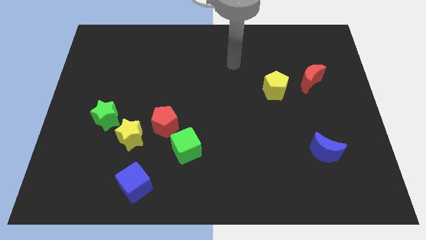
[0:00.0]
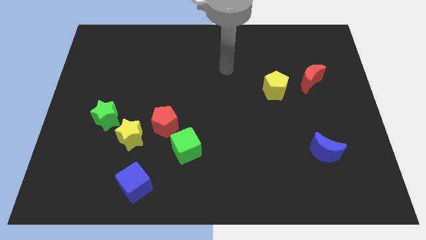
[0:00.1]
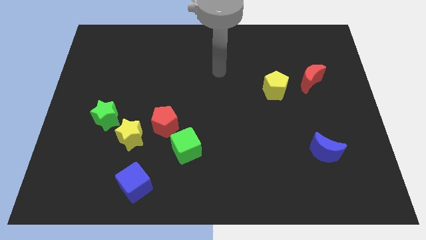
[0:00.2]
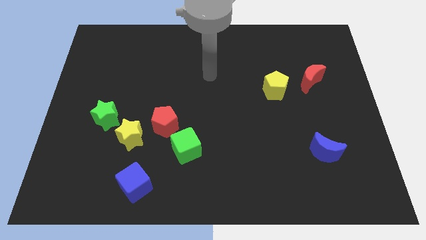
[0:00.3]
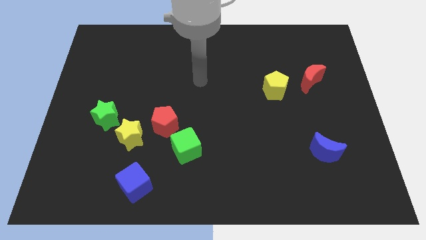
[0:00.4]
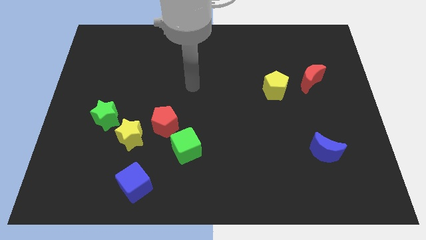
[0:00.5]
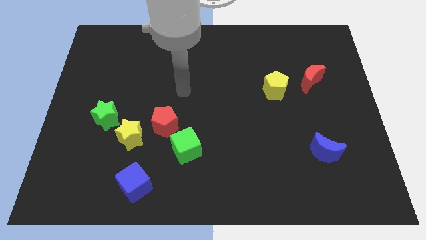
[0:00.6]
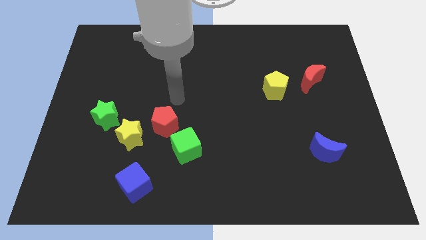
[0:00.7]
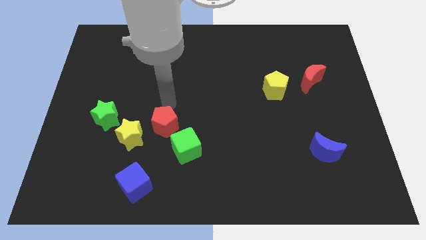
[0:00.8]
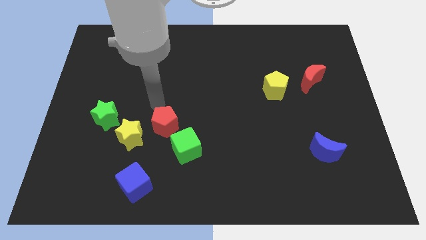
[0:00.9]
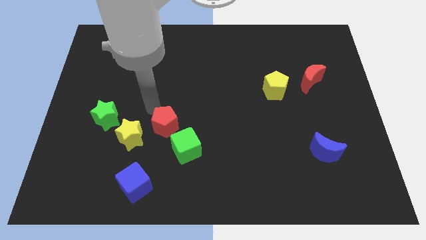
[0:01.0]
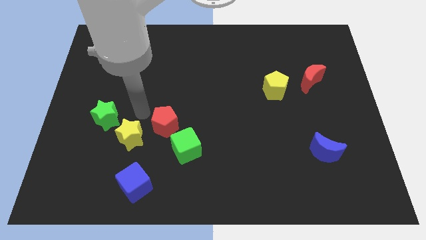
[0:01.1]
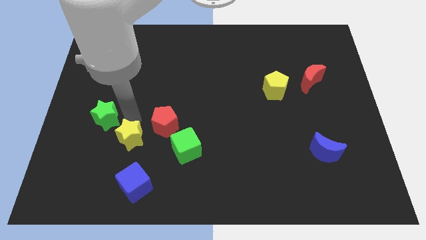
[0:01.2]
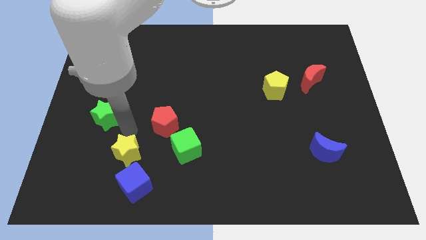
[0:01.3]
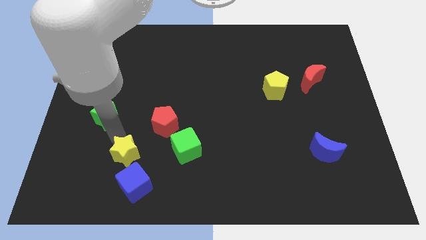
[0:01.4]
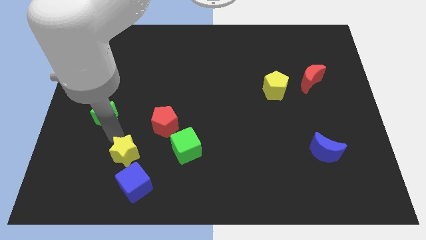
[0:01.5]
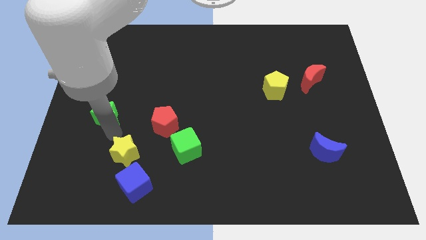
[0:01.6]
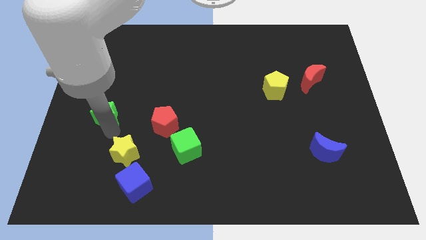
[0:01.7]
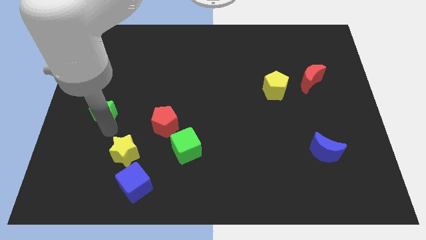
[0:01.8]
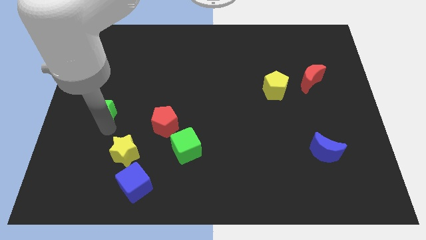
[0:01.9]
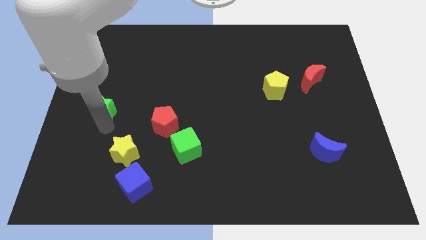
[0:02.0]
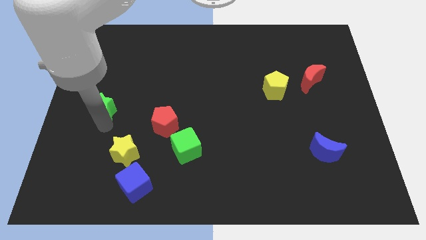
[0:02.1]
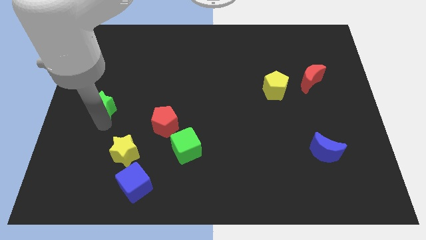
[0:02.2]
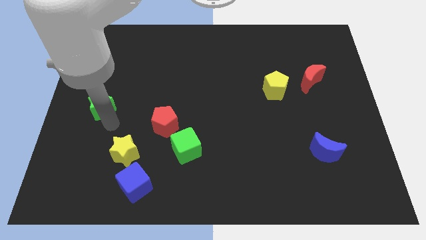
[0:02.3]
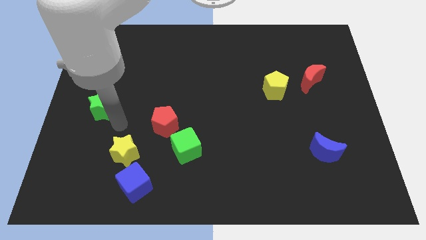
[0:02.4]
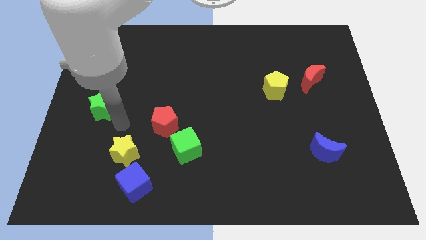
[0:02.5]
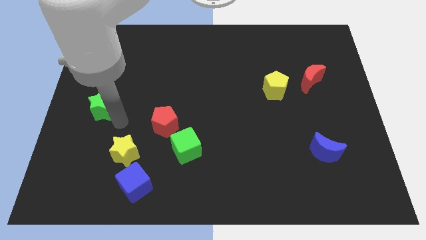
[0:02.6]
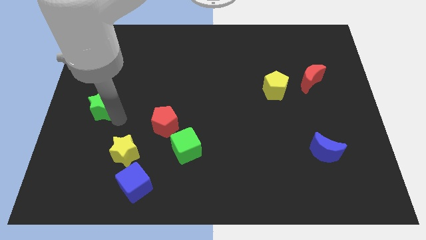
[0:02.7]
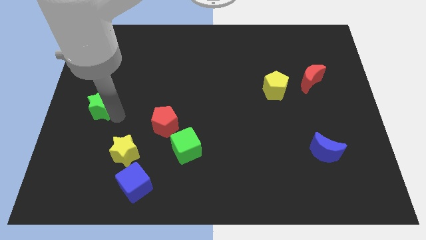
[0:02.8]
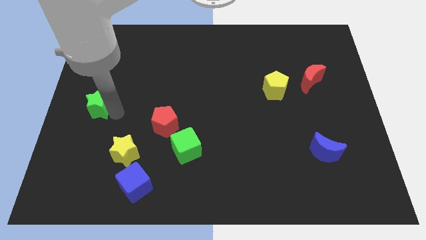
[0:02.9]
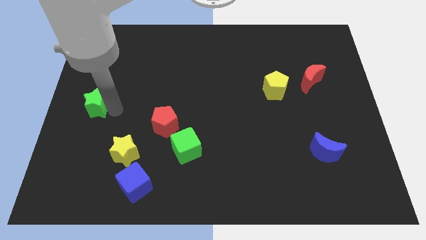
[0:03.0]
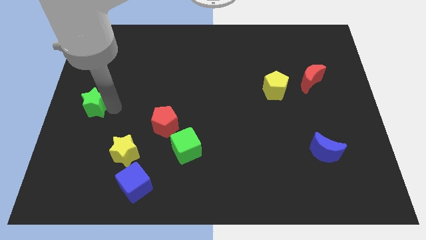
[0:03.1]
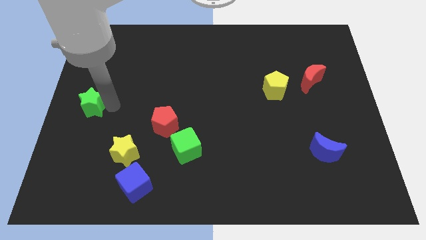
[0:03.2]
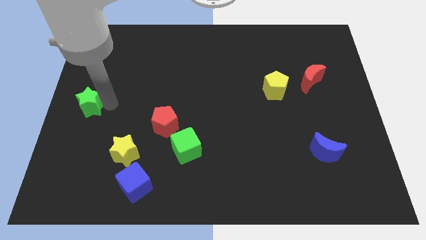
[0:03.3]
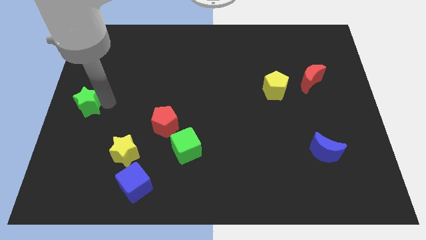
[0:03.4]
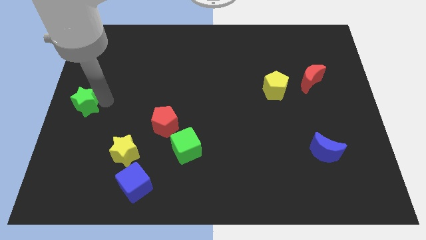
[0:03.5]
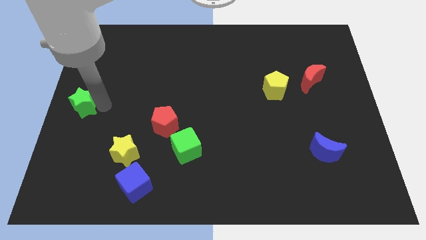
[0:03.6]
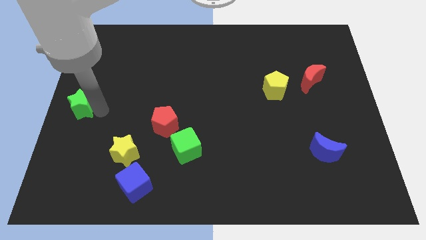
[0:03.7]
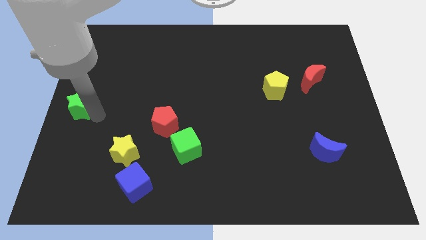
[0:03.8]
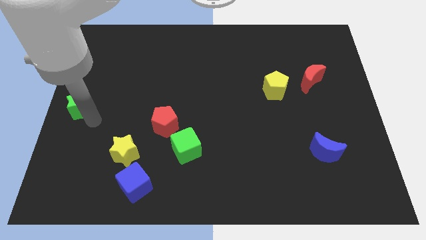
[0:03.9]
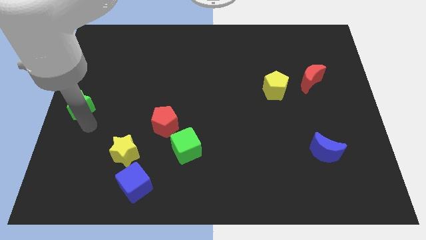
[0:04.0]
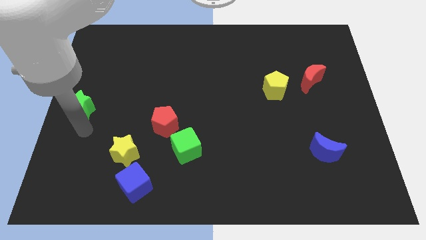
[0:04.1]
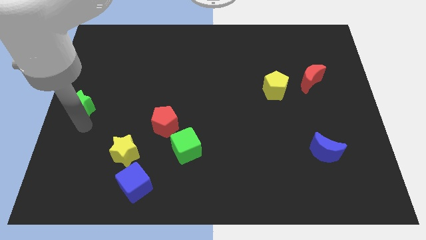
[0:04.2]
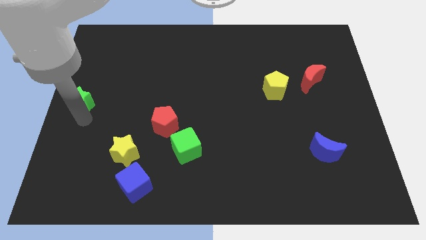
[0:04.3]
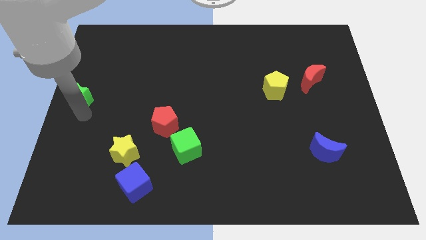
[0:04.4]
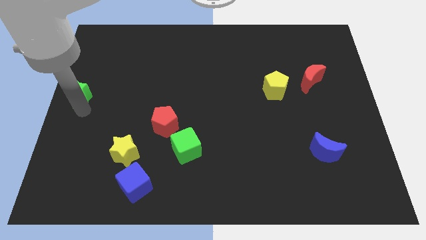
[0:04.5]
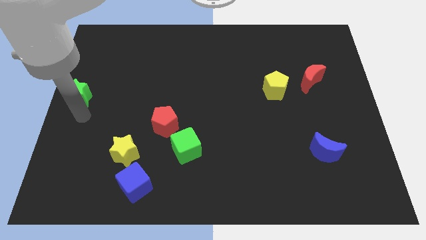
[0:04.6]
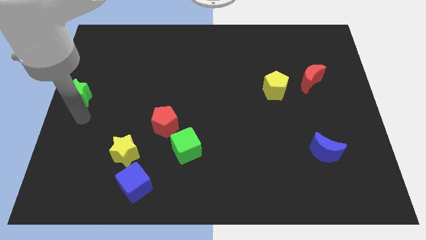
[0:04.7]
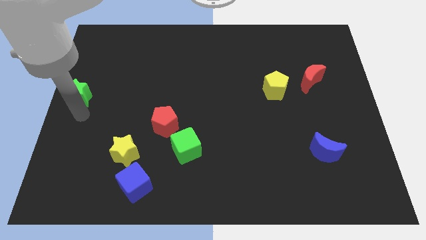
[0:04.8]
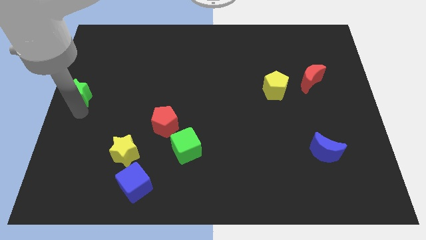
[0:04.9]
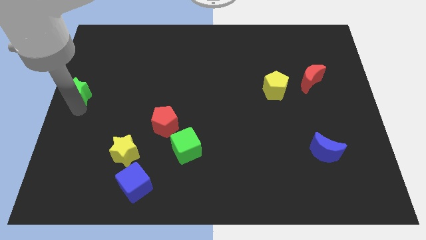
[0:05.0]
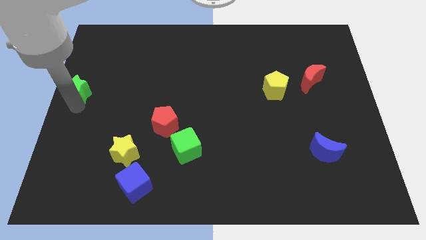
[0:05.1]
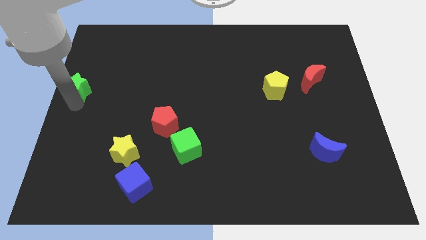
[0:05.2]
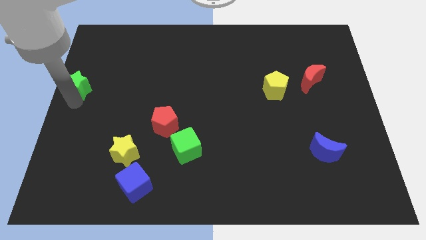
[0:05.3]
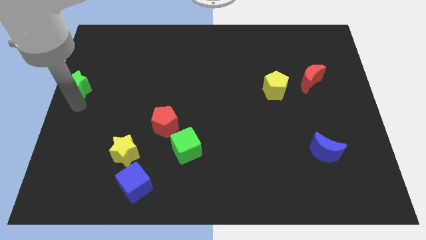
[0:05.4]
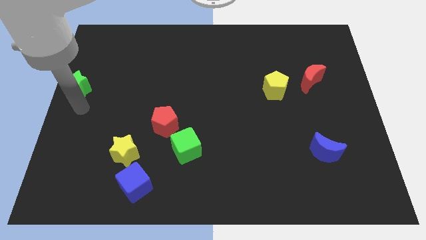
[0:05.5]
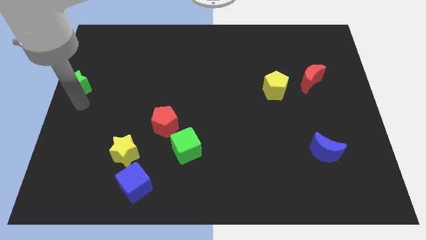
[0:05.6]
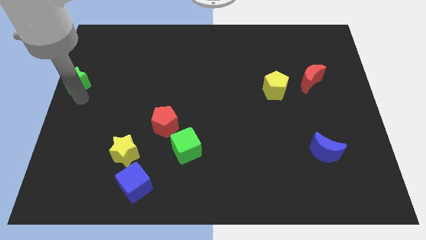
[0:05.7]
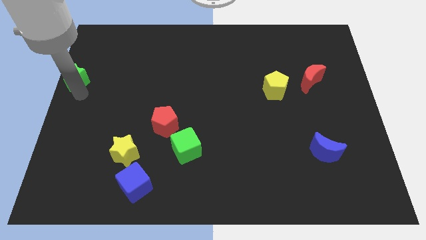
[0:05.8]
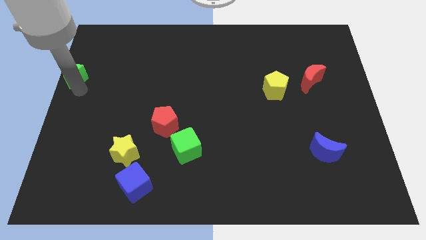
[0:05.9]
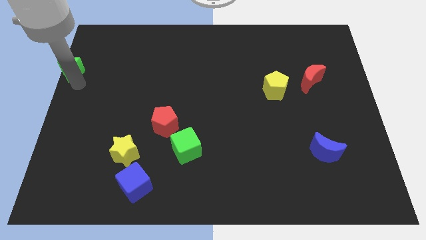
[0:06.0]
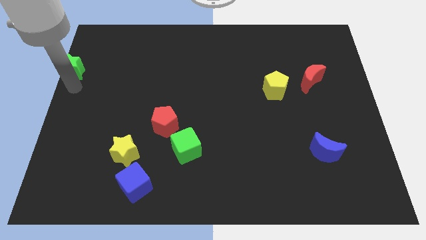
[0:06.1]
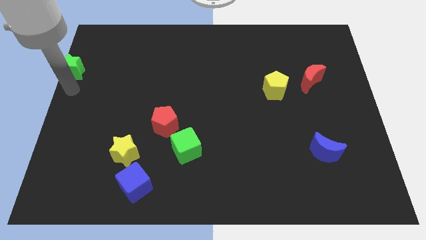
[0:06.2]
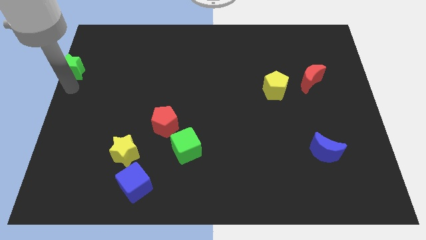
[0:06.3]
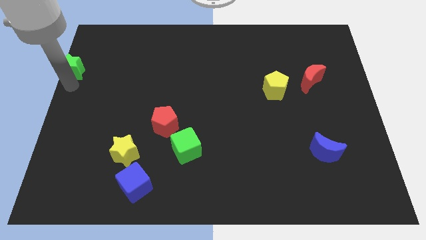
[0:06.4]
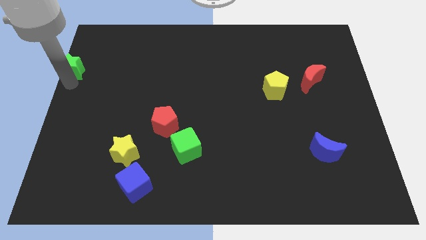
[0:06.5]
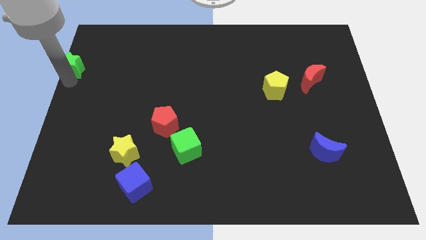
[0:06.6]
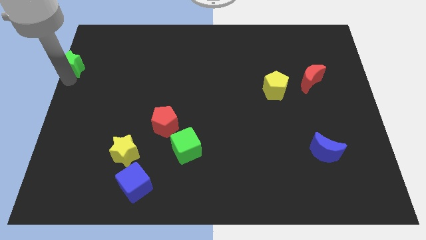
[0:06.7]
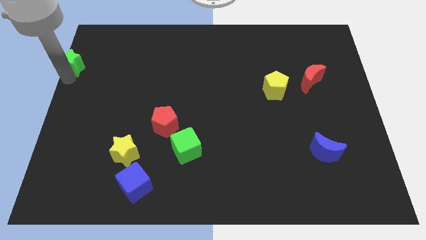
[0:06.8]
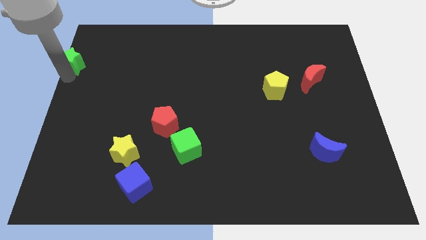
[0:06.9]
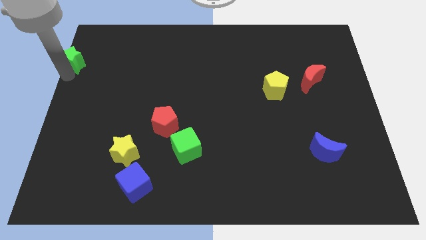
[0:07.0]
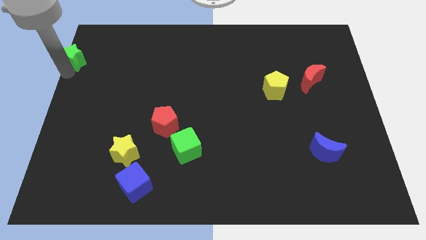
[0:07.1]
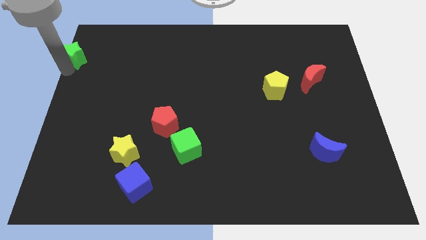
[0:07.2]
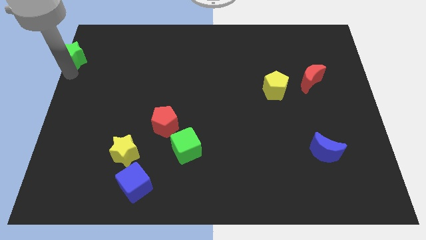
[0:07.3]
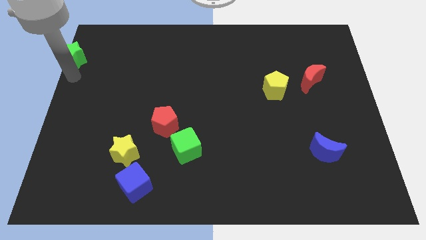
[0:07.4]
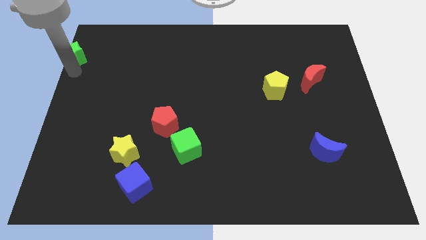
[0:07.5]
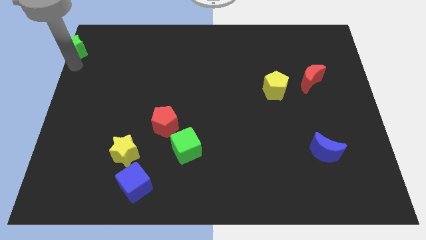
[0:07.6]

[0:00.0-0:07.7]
push the green star to the top left corner
